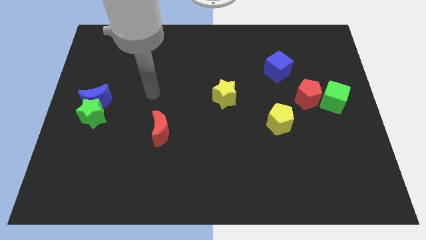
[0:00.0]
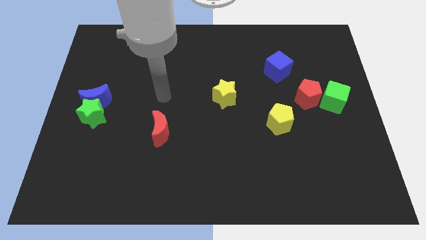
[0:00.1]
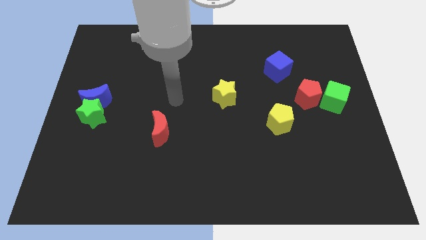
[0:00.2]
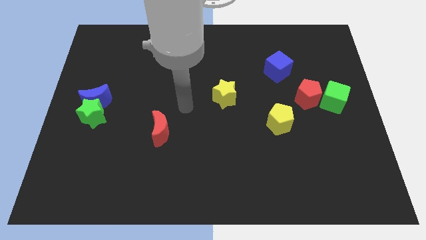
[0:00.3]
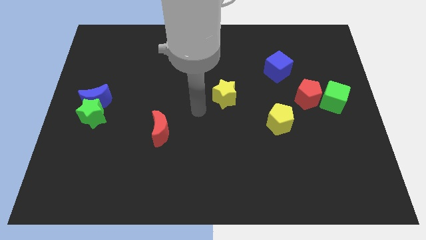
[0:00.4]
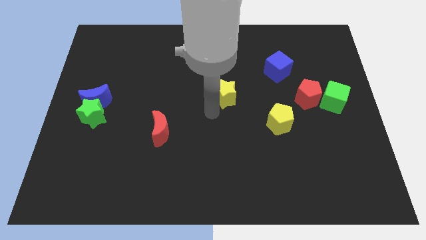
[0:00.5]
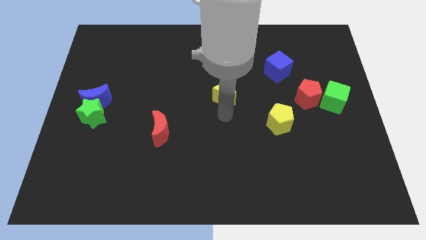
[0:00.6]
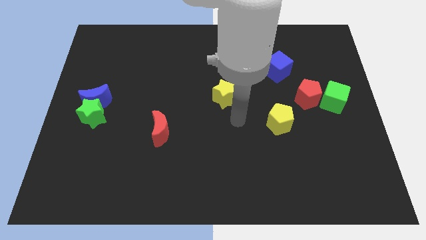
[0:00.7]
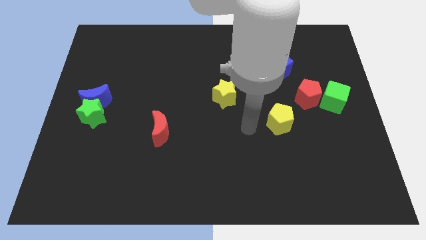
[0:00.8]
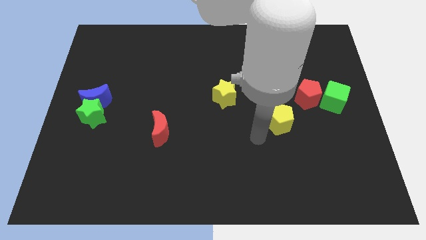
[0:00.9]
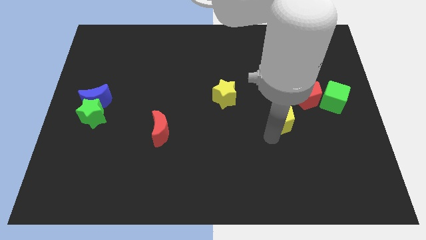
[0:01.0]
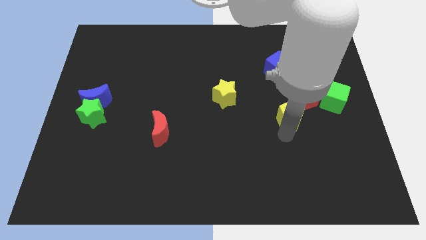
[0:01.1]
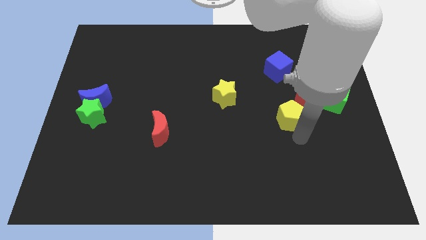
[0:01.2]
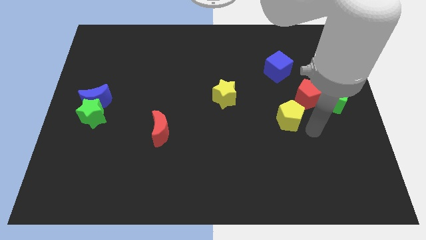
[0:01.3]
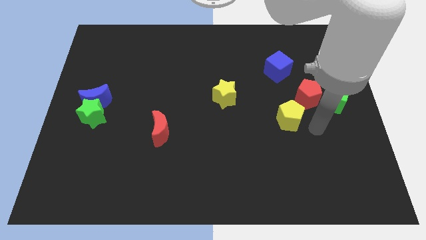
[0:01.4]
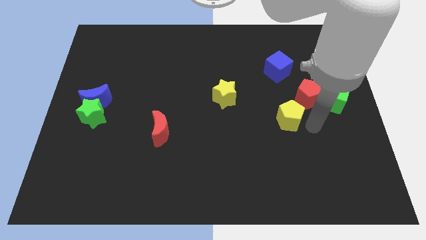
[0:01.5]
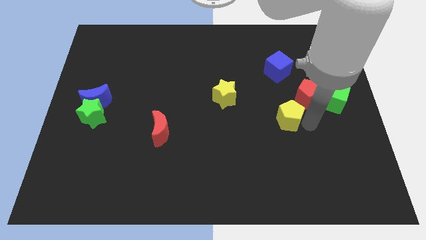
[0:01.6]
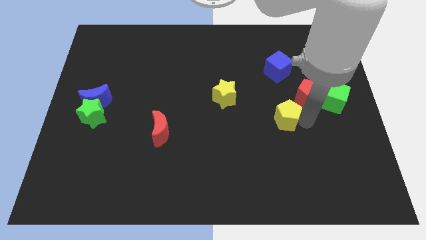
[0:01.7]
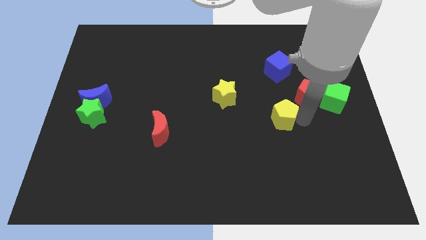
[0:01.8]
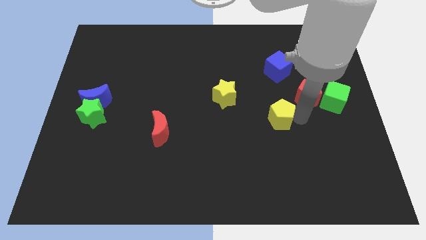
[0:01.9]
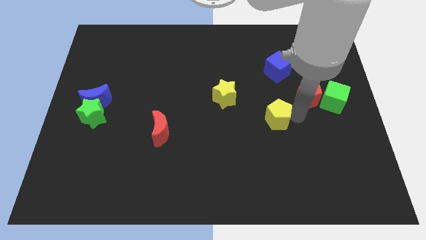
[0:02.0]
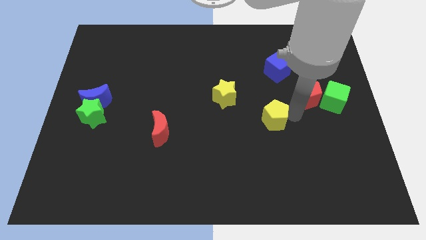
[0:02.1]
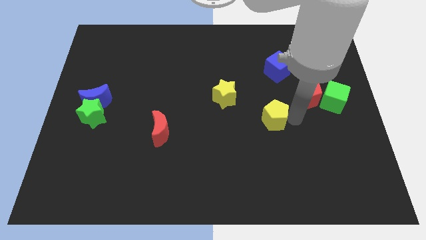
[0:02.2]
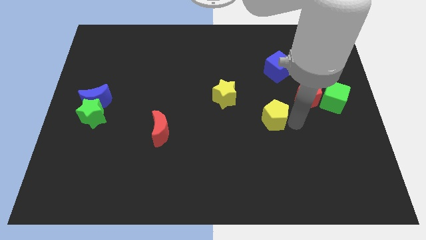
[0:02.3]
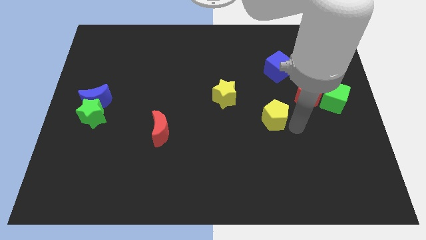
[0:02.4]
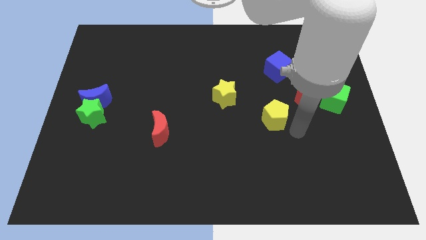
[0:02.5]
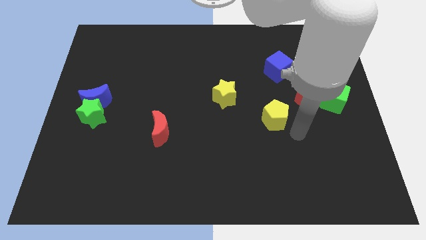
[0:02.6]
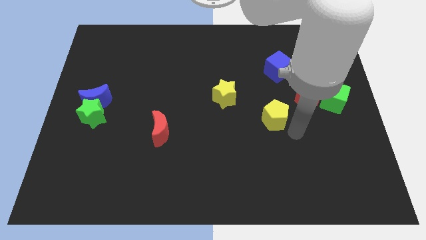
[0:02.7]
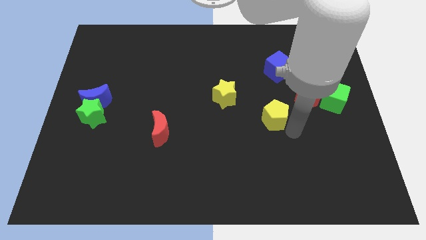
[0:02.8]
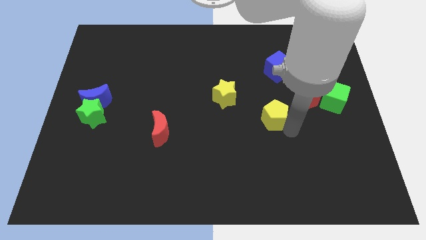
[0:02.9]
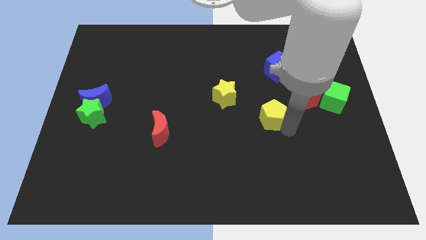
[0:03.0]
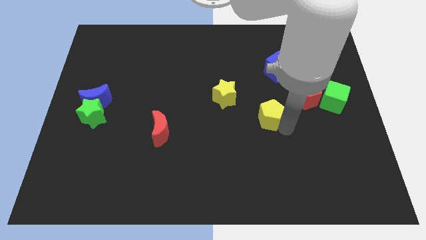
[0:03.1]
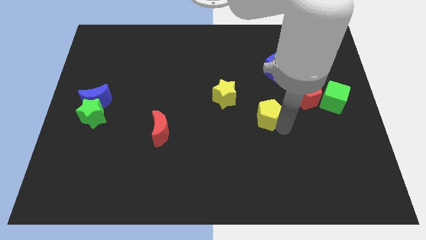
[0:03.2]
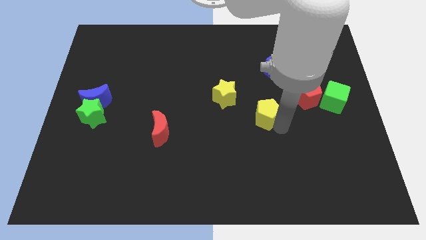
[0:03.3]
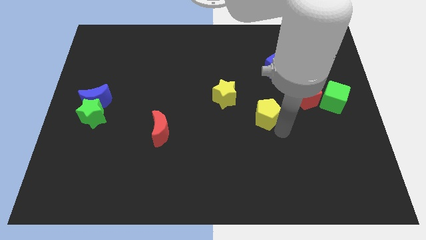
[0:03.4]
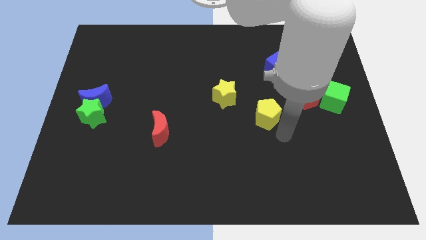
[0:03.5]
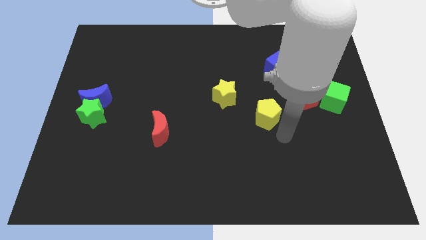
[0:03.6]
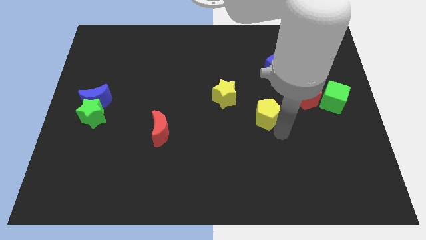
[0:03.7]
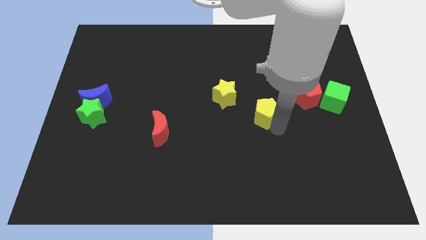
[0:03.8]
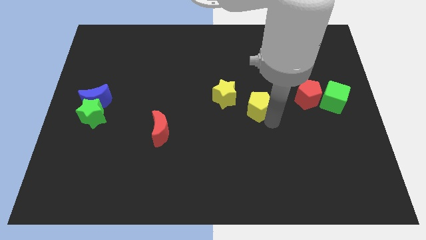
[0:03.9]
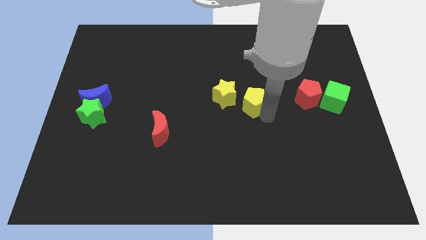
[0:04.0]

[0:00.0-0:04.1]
move the yellow pentagon upwards and to the left a bit

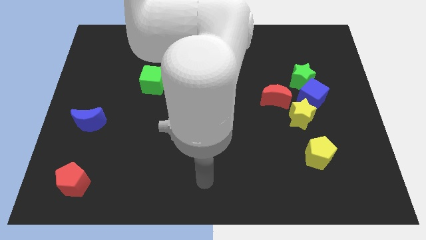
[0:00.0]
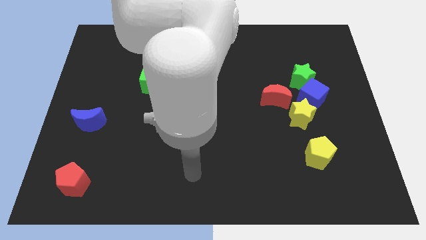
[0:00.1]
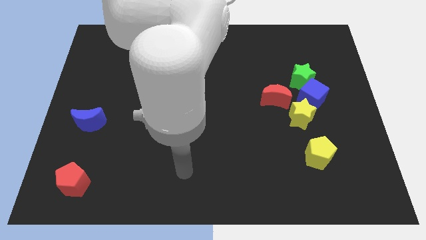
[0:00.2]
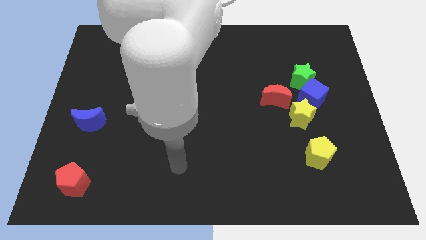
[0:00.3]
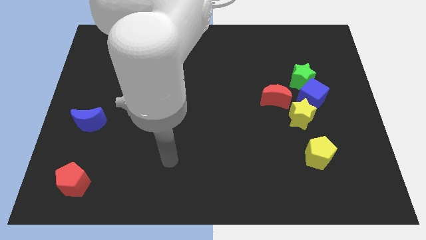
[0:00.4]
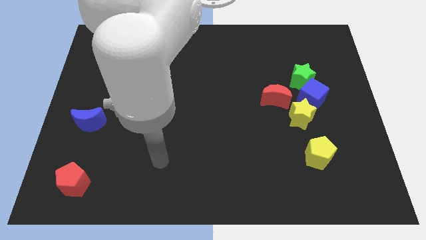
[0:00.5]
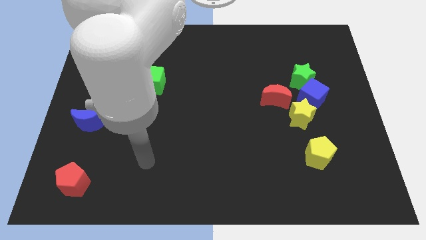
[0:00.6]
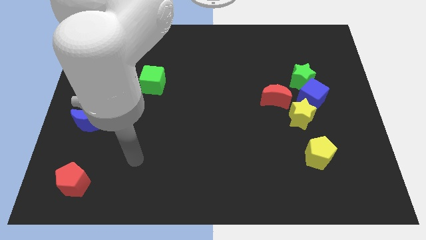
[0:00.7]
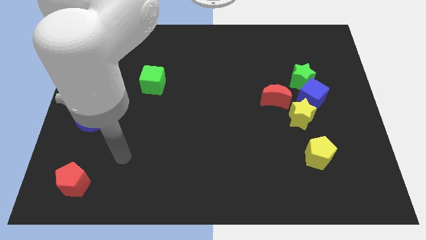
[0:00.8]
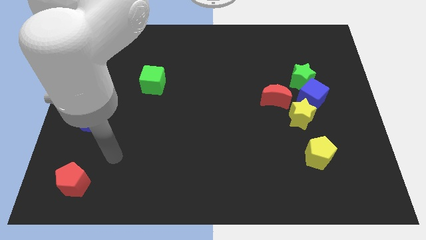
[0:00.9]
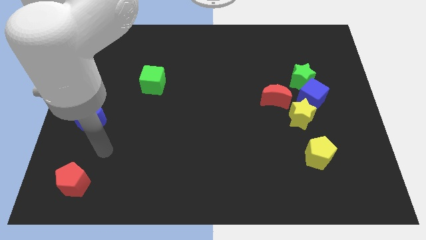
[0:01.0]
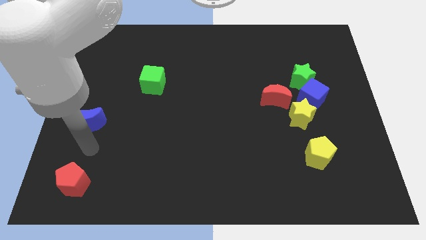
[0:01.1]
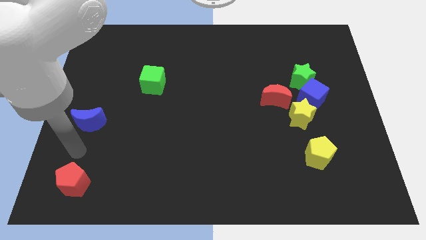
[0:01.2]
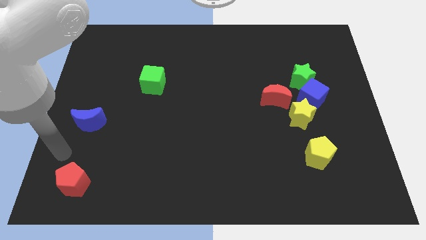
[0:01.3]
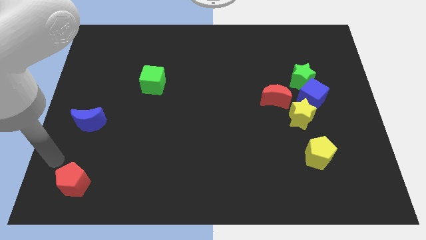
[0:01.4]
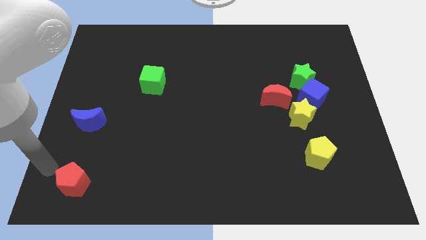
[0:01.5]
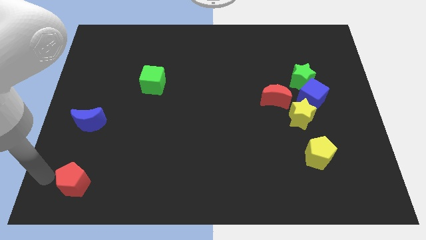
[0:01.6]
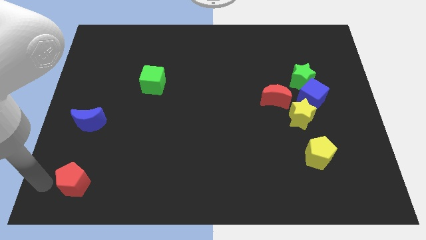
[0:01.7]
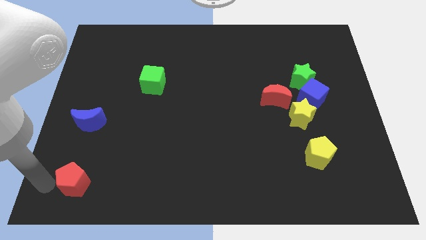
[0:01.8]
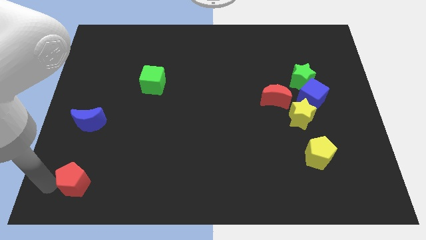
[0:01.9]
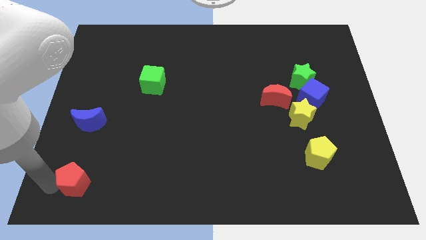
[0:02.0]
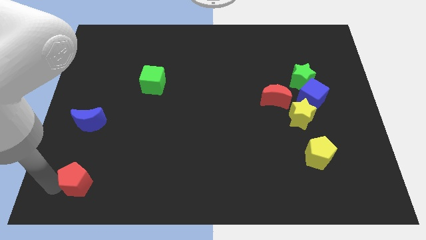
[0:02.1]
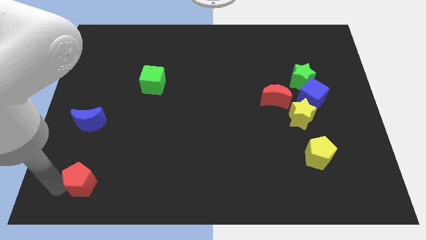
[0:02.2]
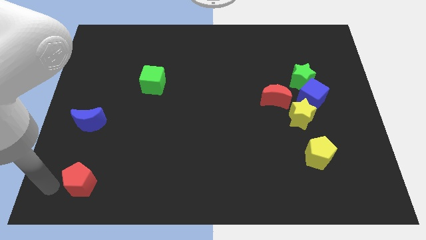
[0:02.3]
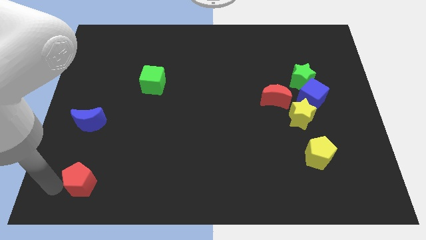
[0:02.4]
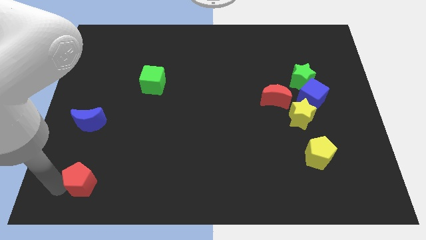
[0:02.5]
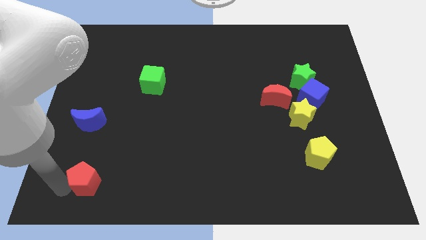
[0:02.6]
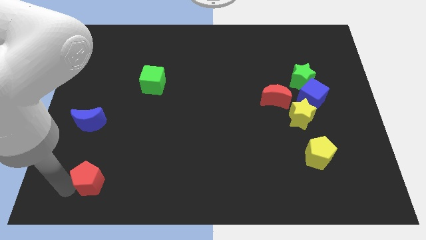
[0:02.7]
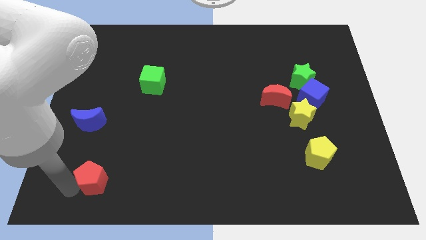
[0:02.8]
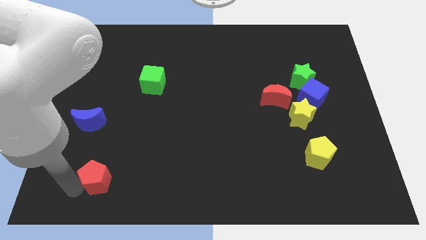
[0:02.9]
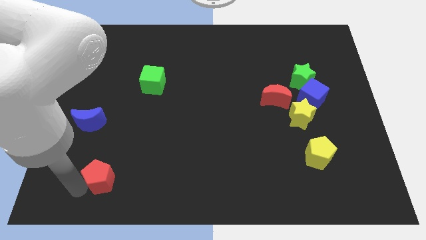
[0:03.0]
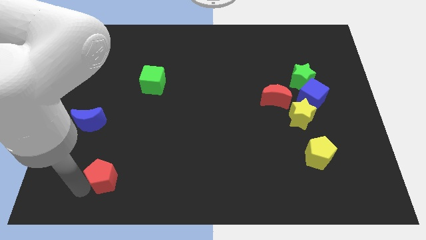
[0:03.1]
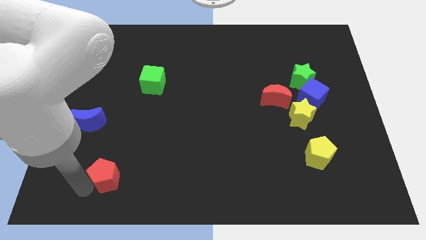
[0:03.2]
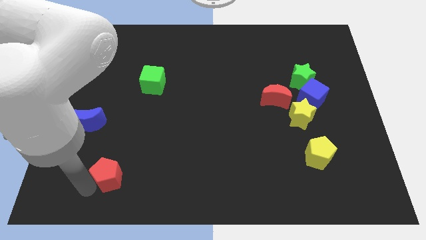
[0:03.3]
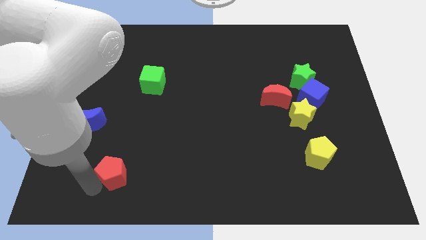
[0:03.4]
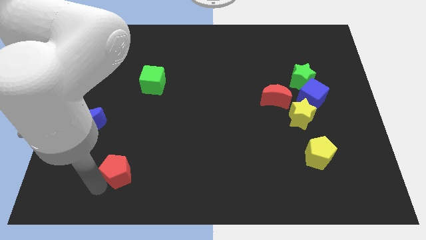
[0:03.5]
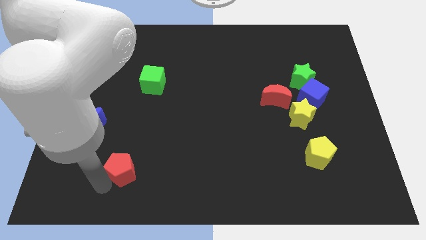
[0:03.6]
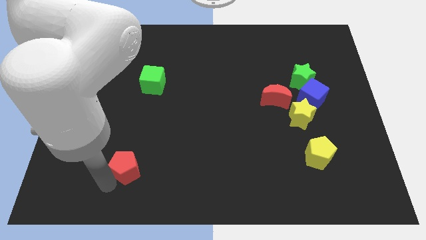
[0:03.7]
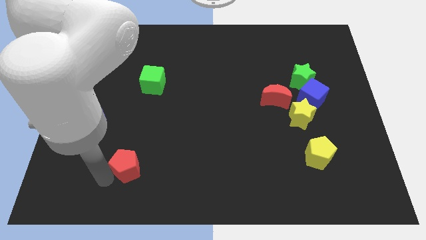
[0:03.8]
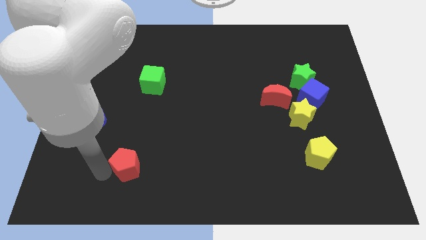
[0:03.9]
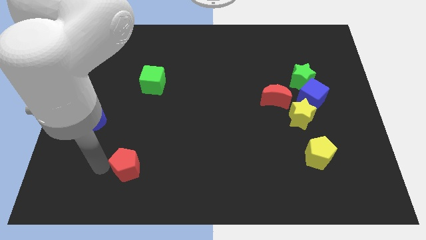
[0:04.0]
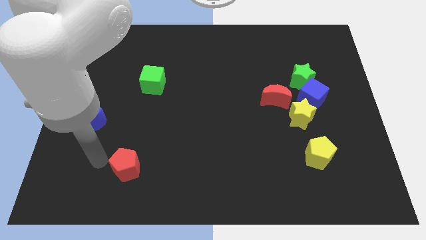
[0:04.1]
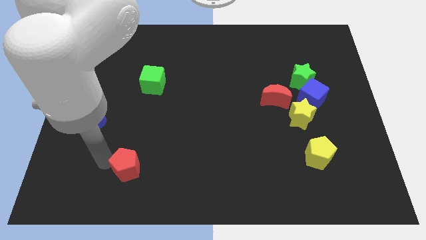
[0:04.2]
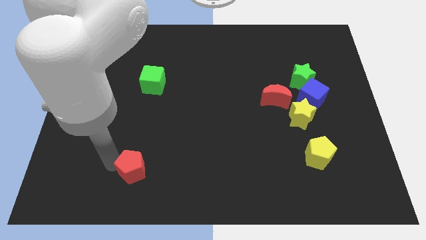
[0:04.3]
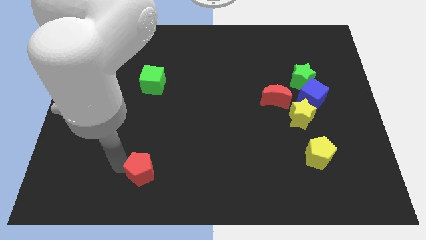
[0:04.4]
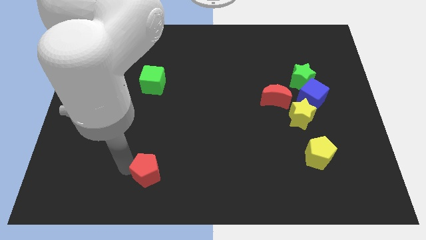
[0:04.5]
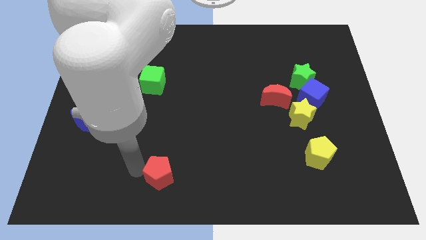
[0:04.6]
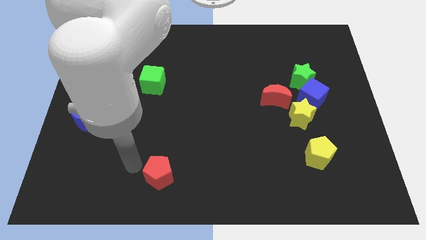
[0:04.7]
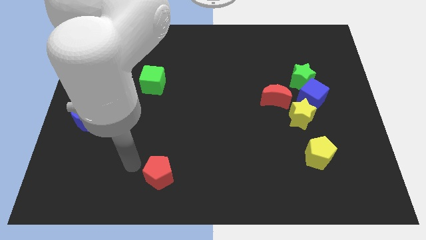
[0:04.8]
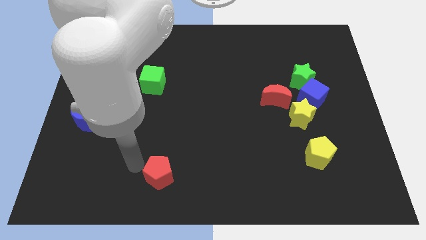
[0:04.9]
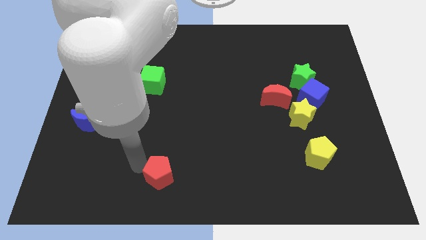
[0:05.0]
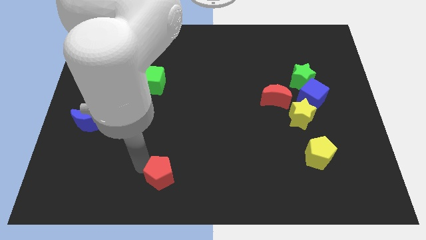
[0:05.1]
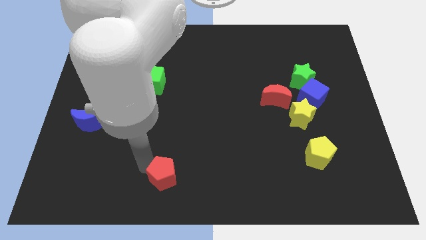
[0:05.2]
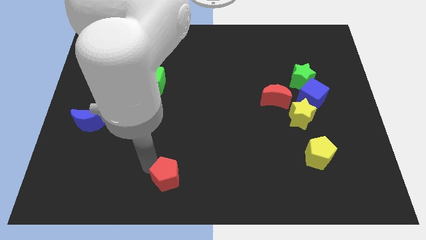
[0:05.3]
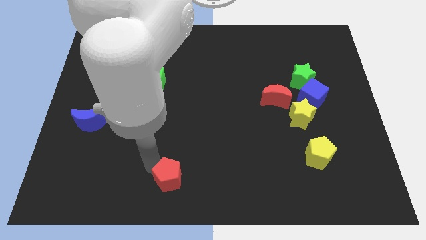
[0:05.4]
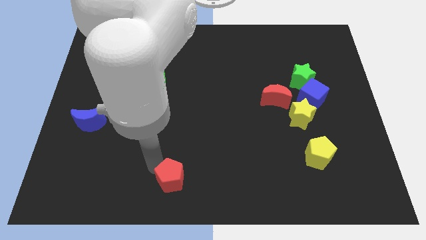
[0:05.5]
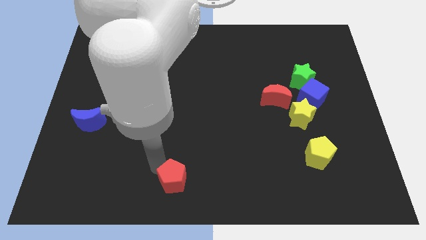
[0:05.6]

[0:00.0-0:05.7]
push the red pentagon right
